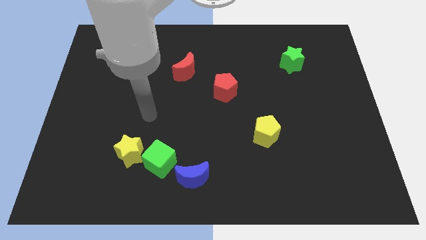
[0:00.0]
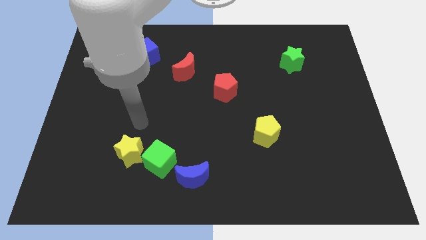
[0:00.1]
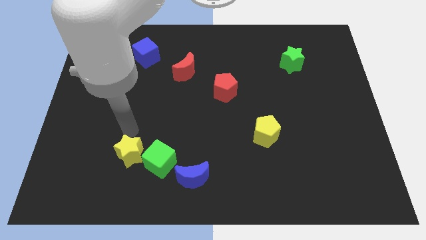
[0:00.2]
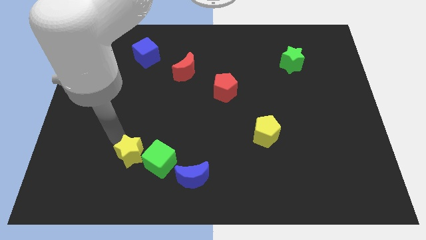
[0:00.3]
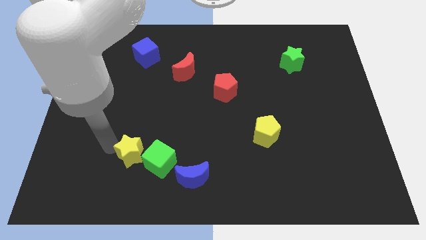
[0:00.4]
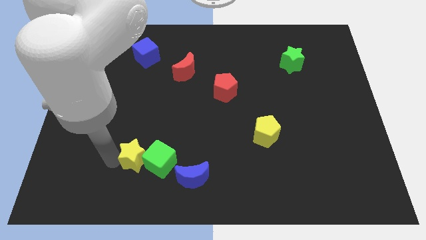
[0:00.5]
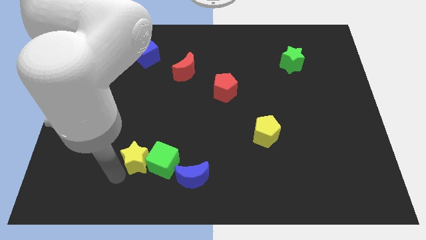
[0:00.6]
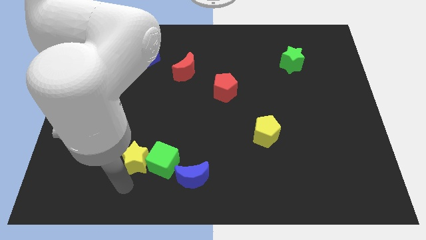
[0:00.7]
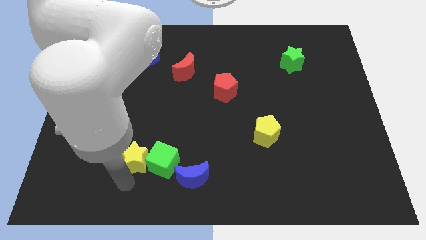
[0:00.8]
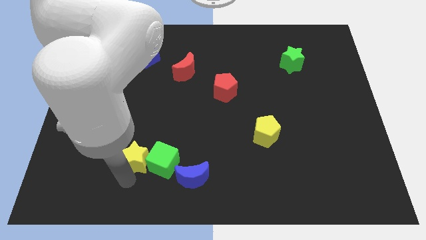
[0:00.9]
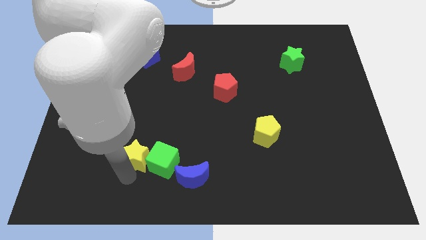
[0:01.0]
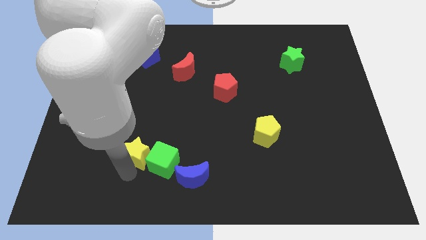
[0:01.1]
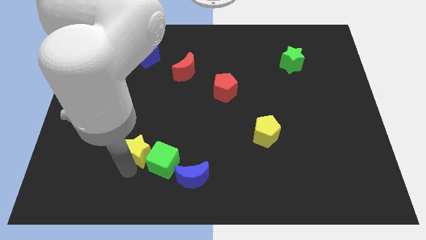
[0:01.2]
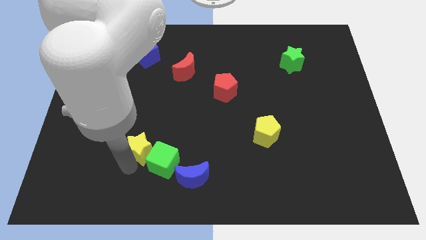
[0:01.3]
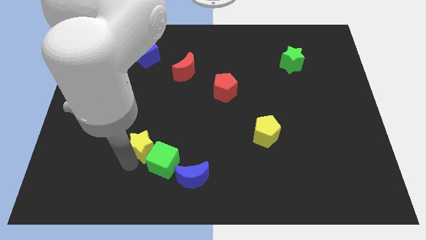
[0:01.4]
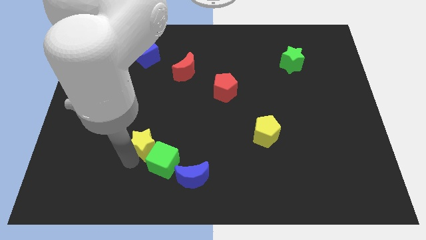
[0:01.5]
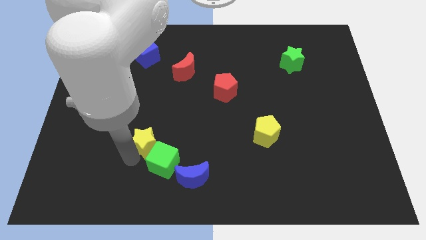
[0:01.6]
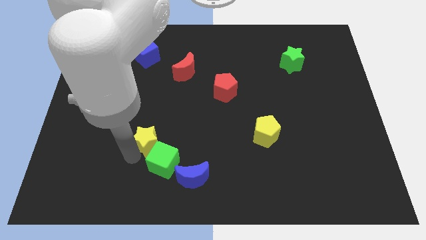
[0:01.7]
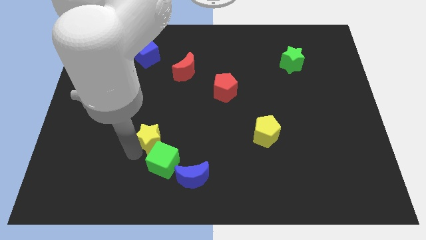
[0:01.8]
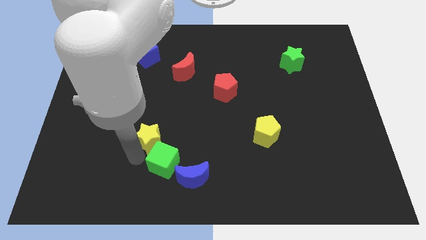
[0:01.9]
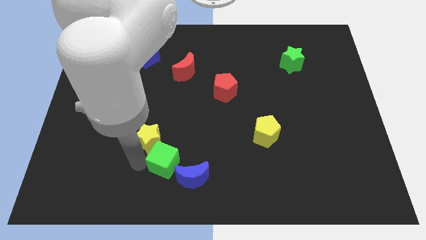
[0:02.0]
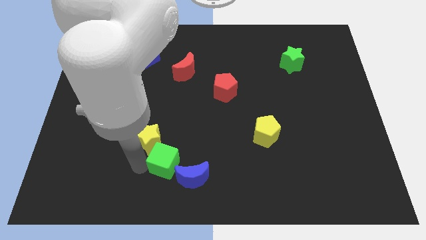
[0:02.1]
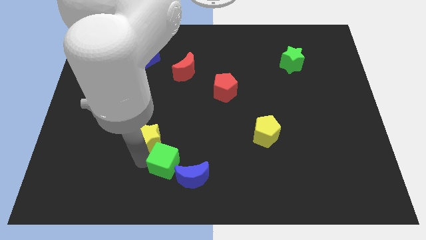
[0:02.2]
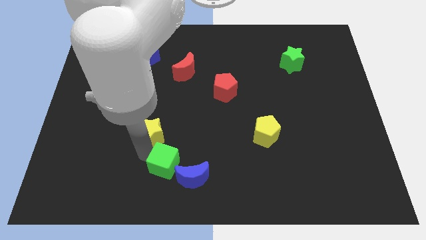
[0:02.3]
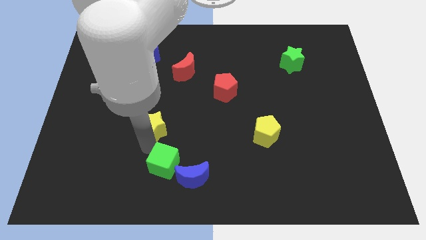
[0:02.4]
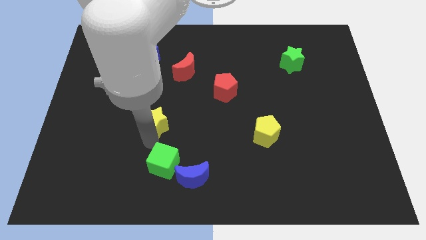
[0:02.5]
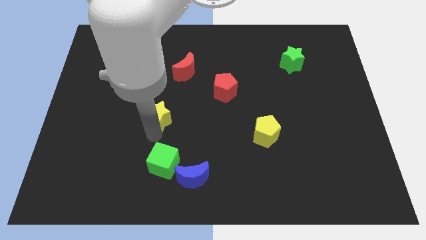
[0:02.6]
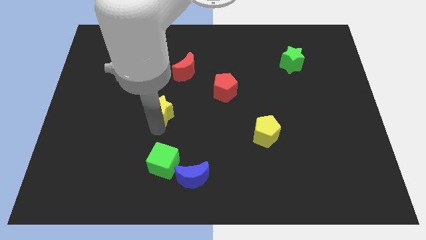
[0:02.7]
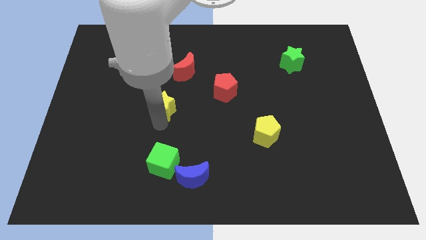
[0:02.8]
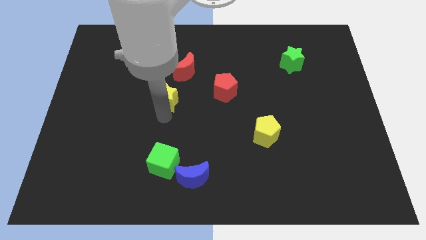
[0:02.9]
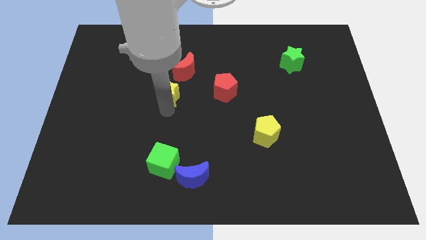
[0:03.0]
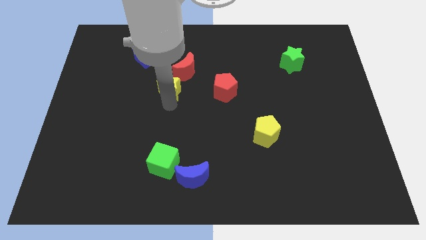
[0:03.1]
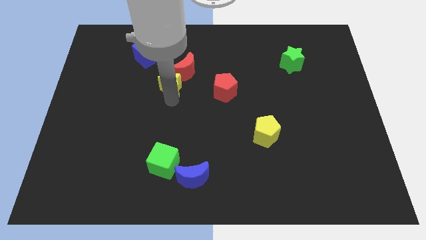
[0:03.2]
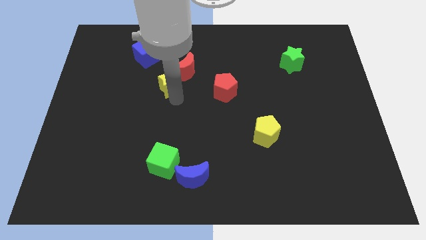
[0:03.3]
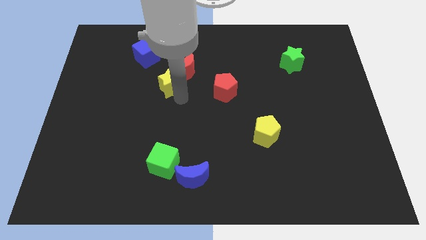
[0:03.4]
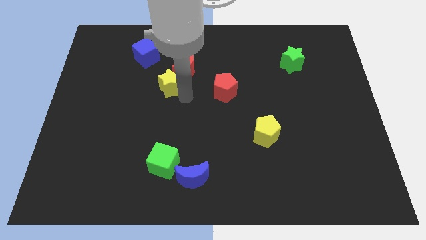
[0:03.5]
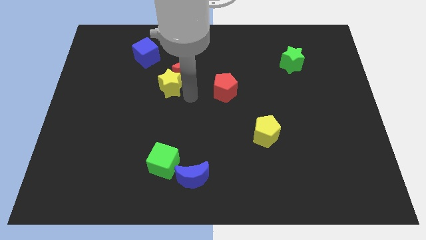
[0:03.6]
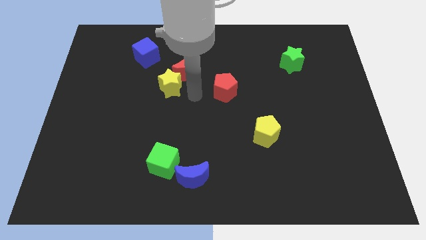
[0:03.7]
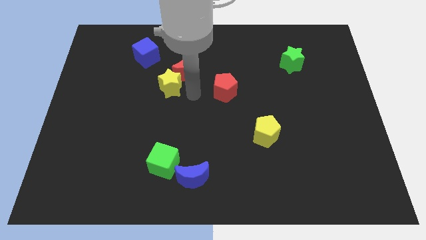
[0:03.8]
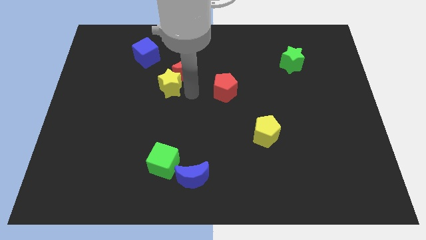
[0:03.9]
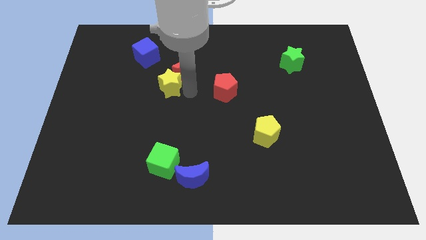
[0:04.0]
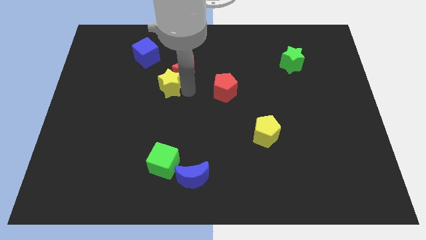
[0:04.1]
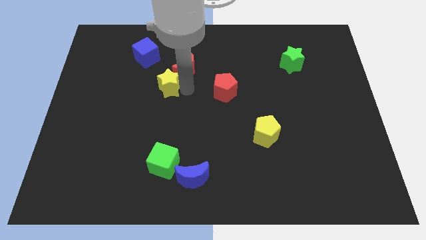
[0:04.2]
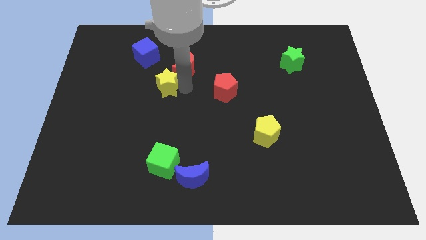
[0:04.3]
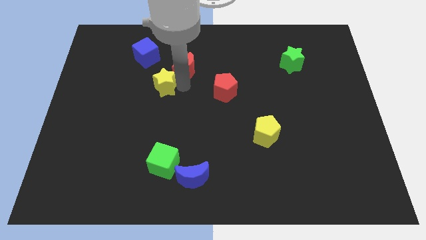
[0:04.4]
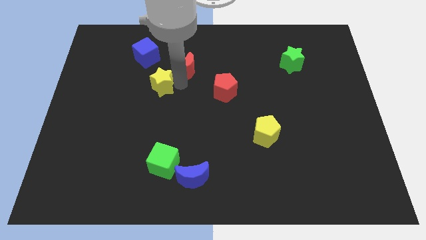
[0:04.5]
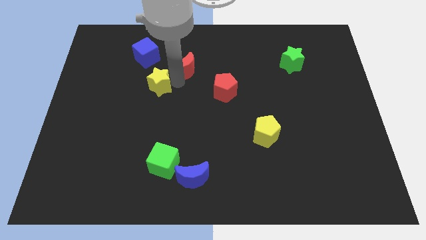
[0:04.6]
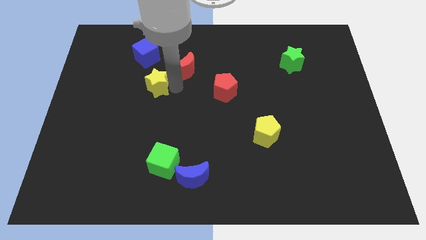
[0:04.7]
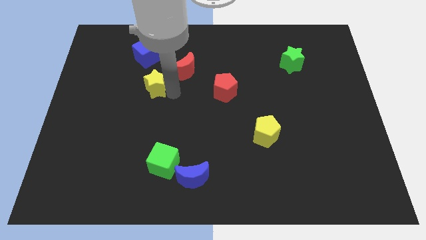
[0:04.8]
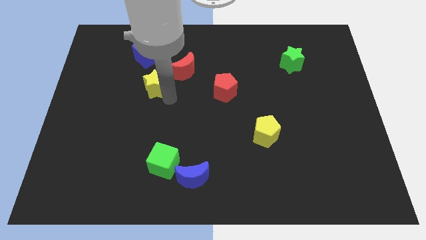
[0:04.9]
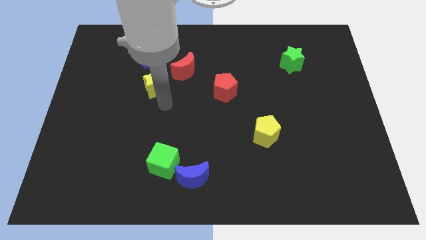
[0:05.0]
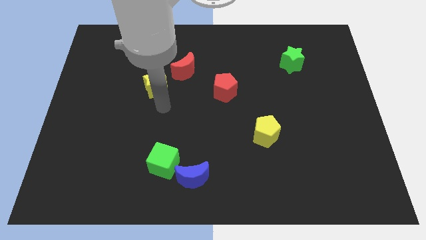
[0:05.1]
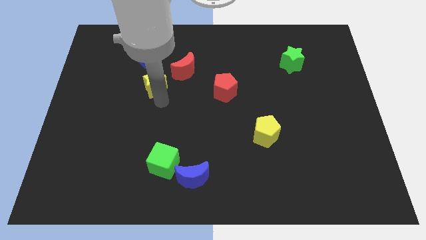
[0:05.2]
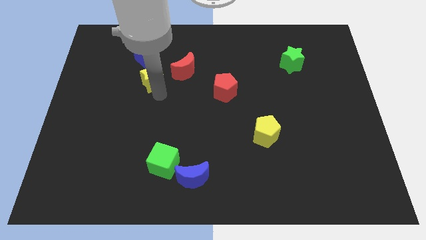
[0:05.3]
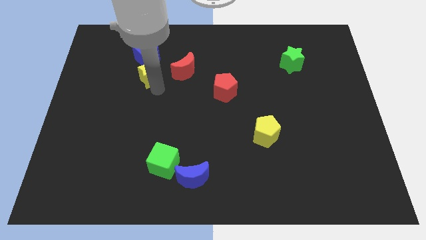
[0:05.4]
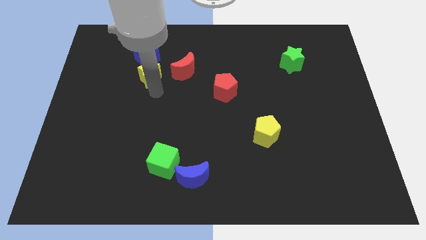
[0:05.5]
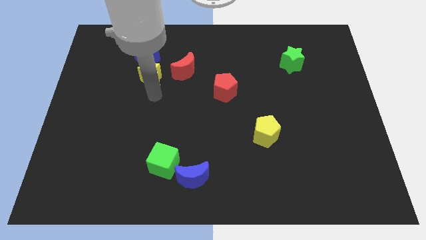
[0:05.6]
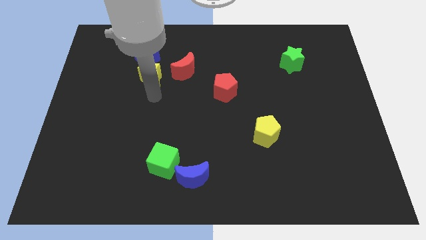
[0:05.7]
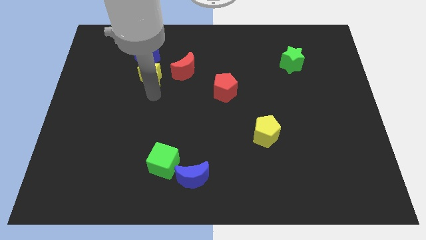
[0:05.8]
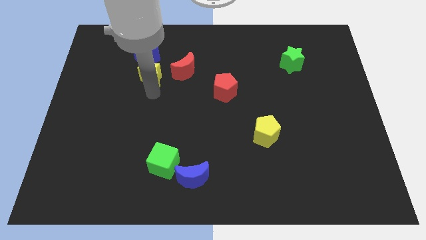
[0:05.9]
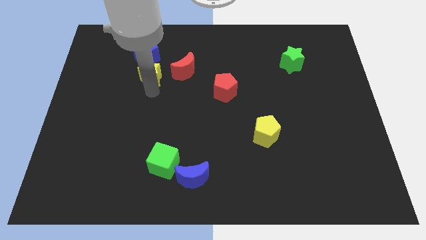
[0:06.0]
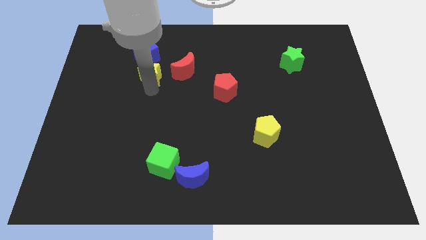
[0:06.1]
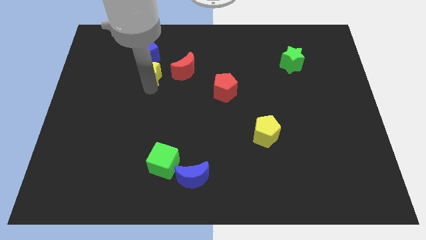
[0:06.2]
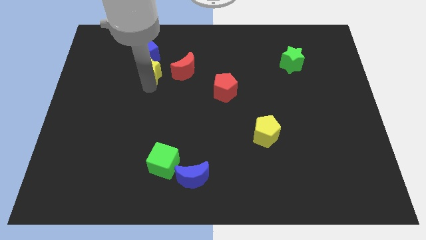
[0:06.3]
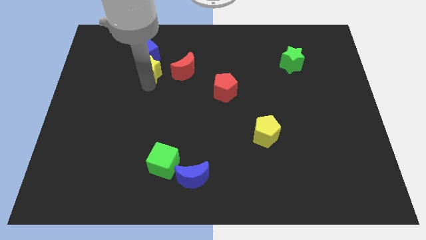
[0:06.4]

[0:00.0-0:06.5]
put the yellow star close to the blue cube

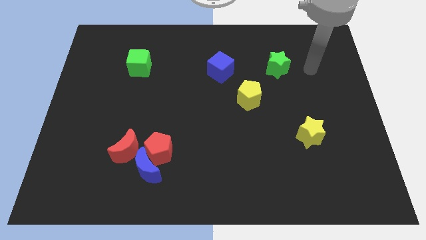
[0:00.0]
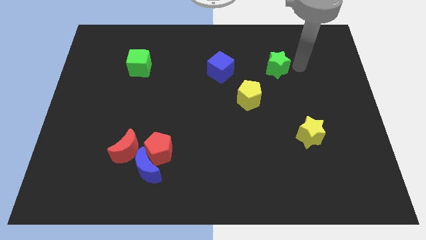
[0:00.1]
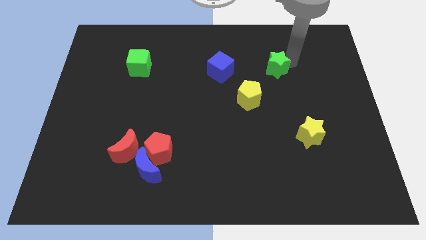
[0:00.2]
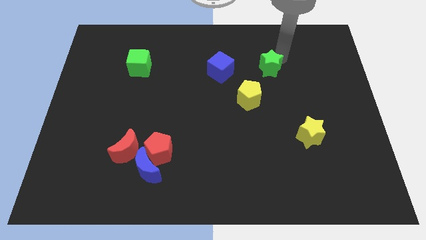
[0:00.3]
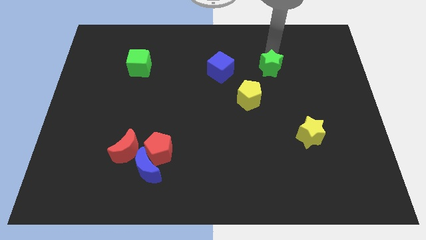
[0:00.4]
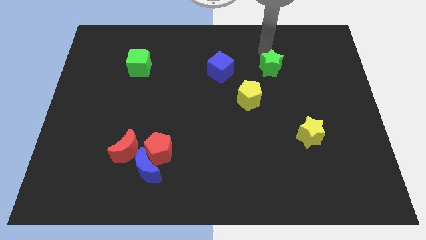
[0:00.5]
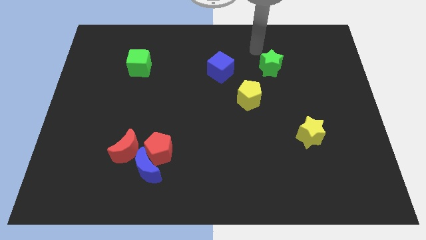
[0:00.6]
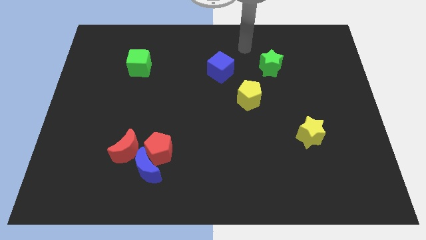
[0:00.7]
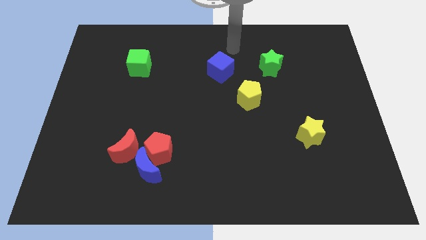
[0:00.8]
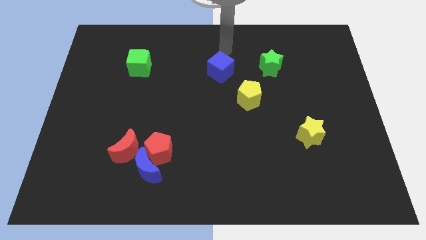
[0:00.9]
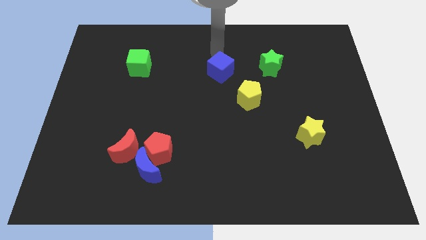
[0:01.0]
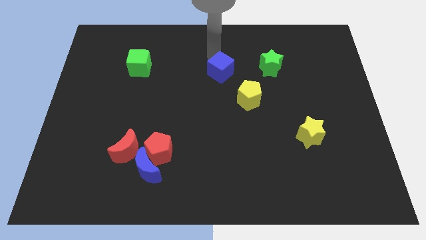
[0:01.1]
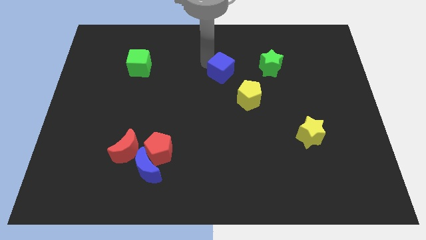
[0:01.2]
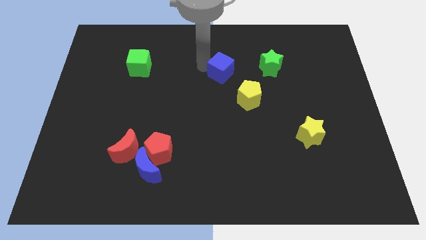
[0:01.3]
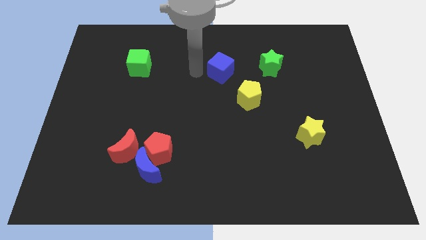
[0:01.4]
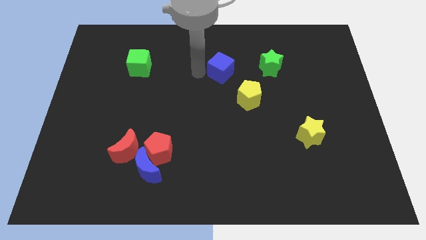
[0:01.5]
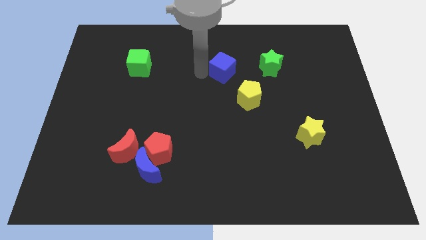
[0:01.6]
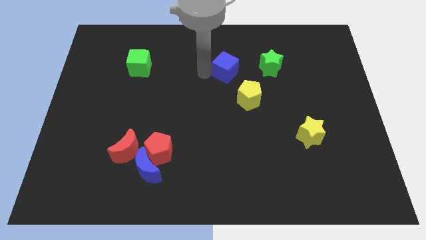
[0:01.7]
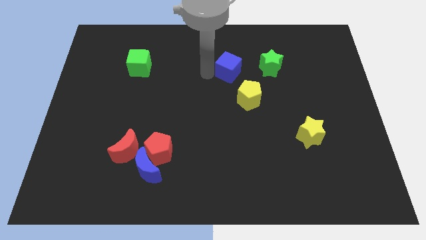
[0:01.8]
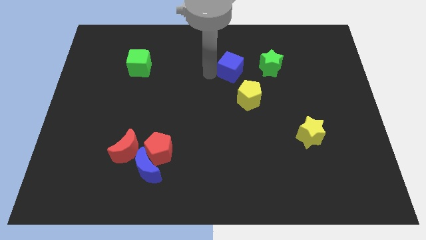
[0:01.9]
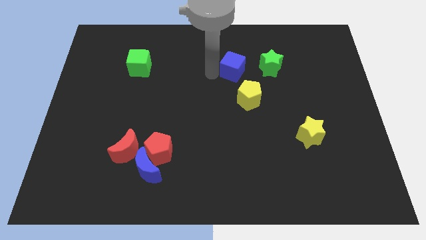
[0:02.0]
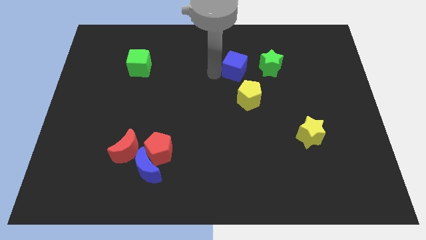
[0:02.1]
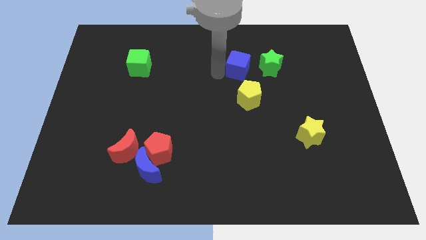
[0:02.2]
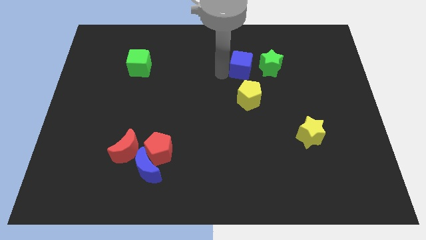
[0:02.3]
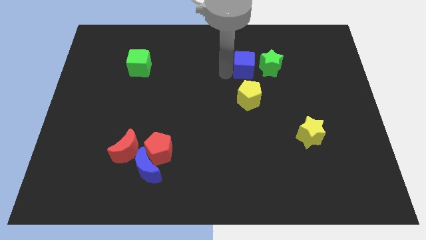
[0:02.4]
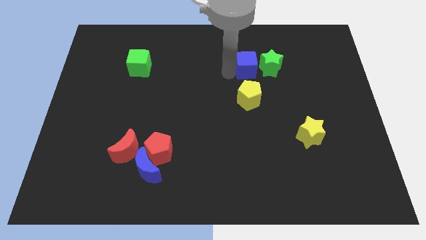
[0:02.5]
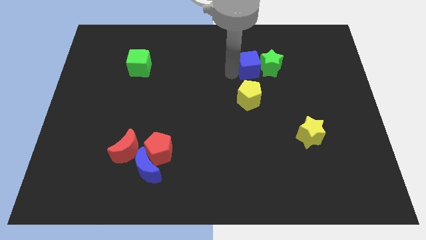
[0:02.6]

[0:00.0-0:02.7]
push the blue cube towards the green star
